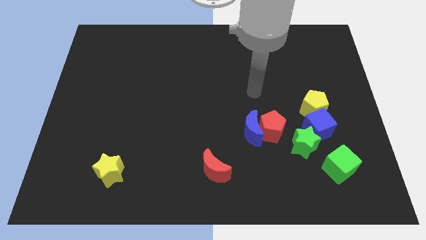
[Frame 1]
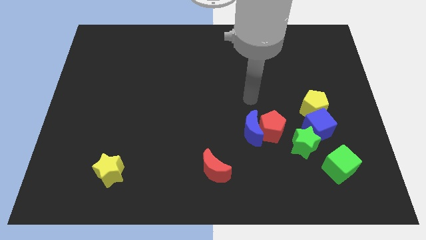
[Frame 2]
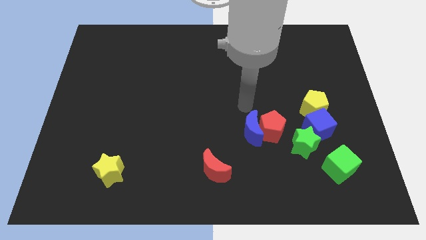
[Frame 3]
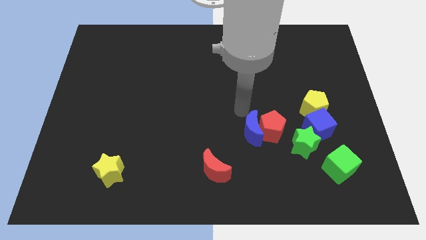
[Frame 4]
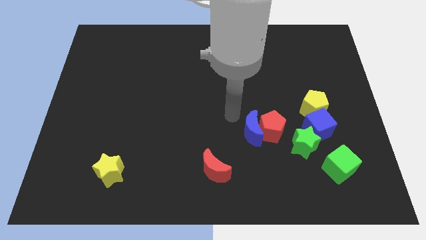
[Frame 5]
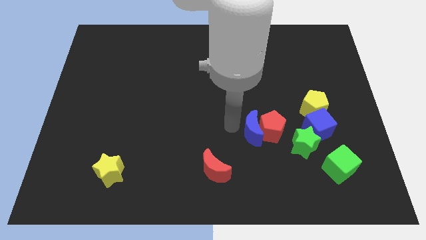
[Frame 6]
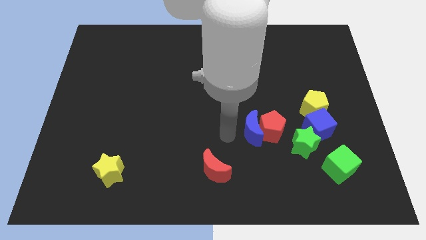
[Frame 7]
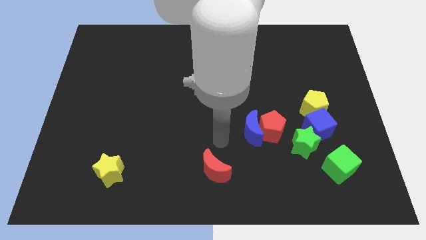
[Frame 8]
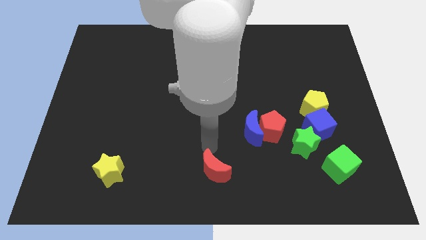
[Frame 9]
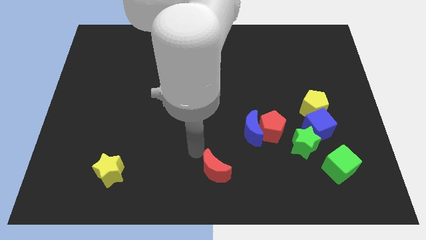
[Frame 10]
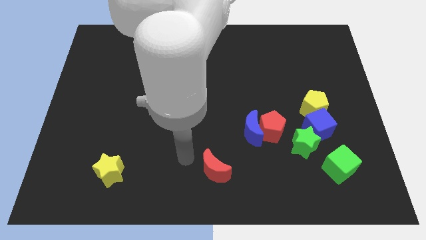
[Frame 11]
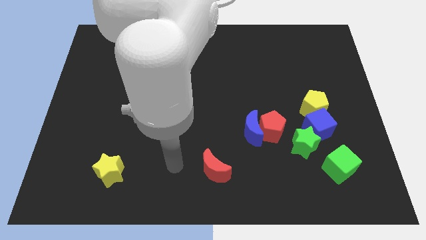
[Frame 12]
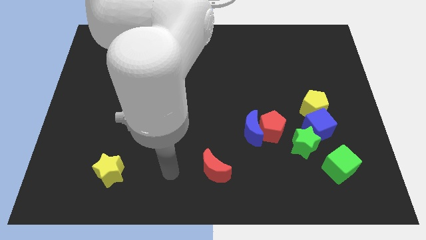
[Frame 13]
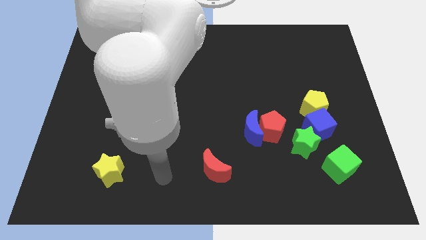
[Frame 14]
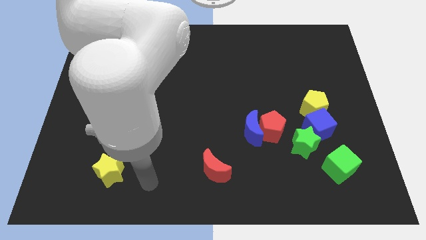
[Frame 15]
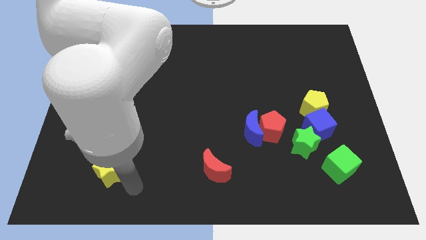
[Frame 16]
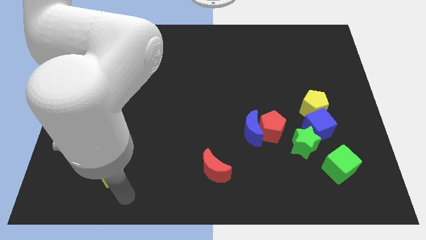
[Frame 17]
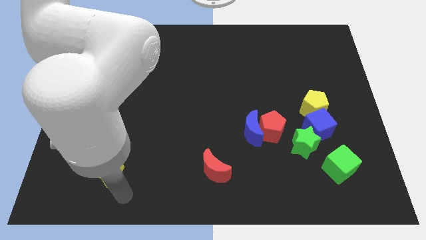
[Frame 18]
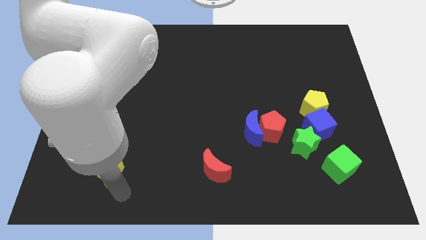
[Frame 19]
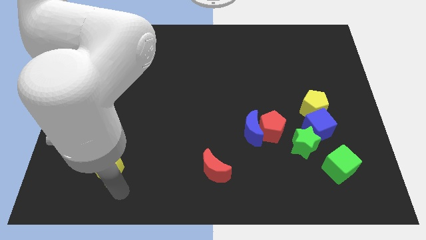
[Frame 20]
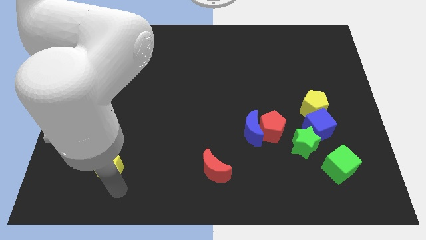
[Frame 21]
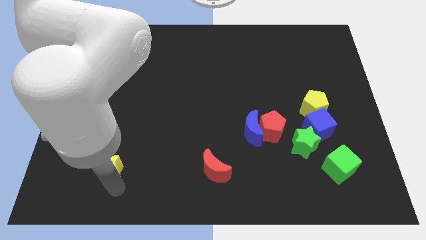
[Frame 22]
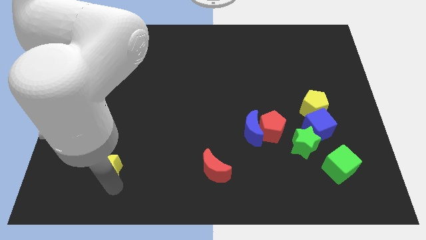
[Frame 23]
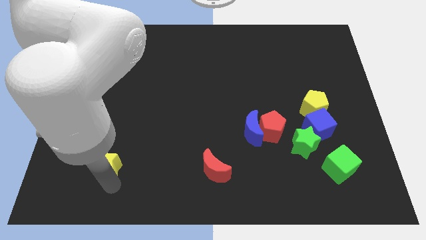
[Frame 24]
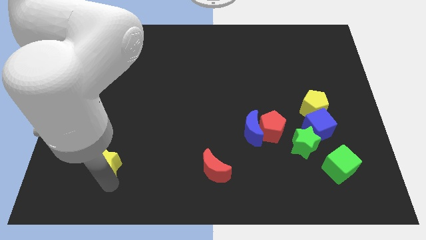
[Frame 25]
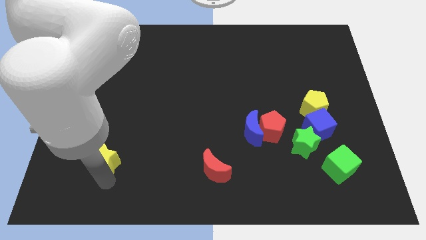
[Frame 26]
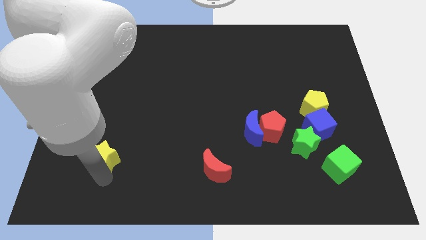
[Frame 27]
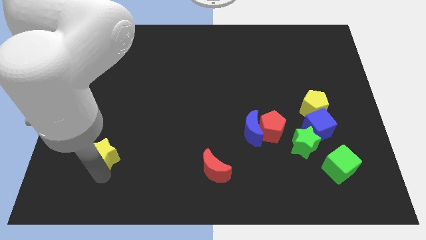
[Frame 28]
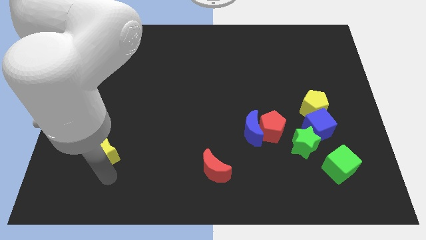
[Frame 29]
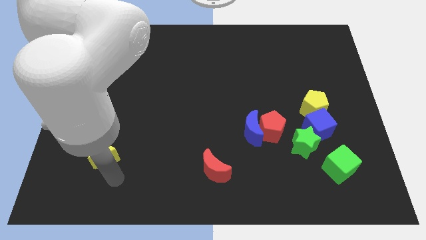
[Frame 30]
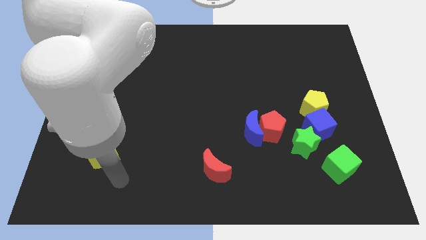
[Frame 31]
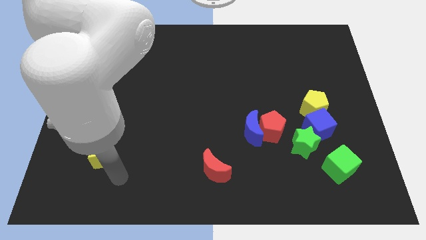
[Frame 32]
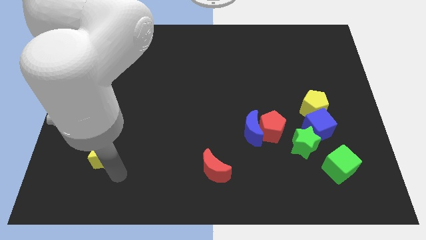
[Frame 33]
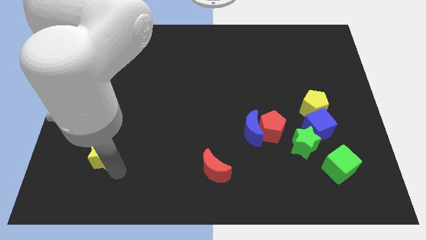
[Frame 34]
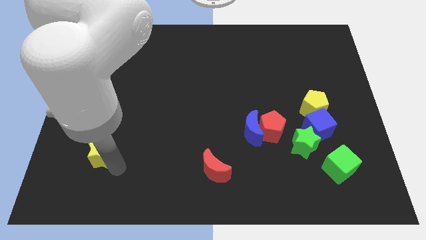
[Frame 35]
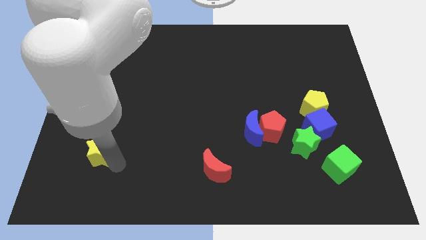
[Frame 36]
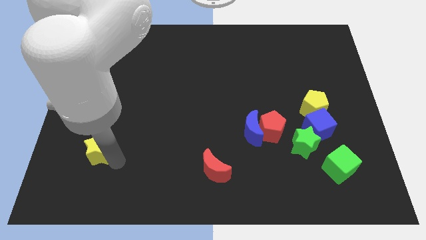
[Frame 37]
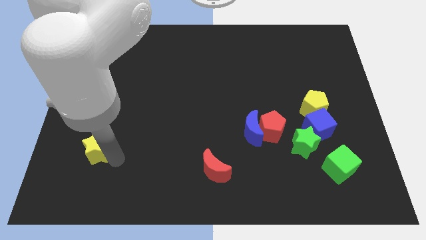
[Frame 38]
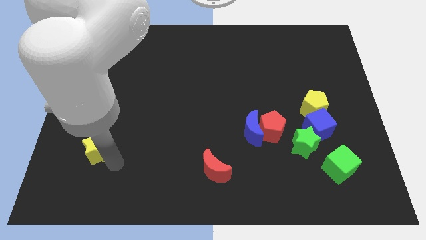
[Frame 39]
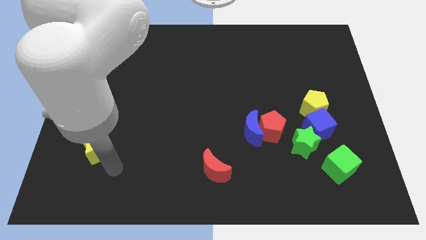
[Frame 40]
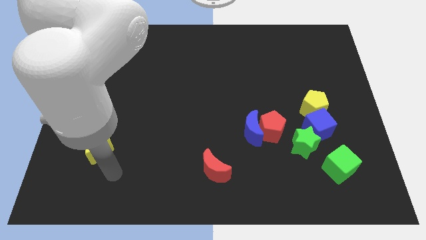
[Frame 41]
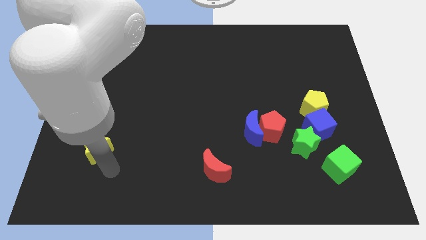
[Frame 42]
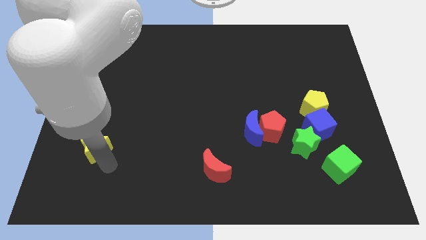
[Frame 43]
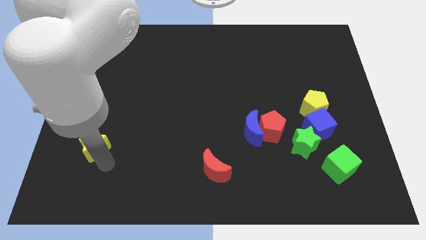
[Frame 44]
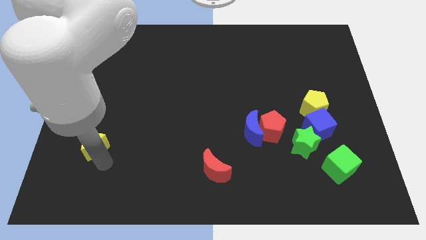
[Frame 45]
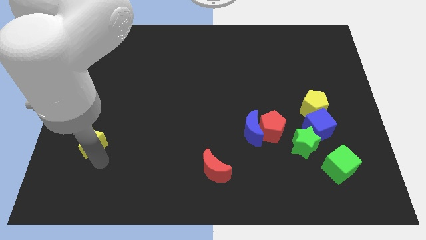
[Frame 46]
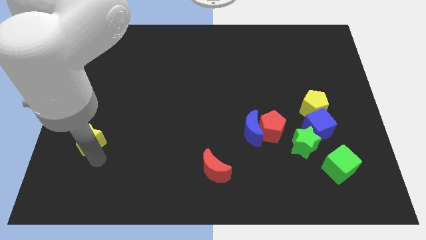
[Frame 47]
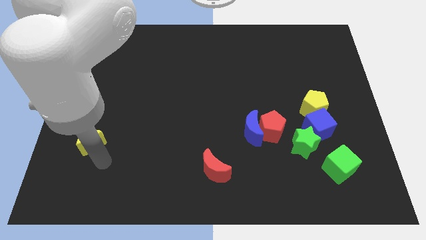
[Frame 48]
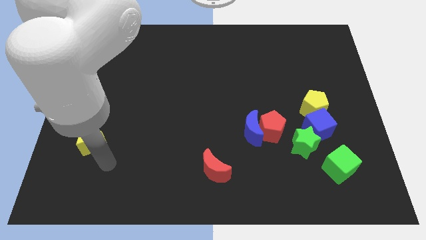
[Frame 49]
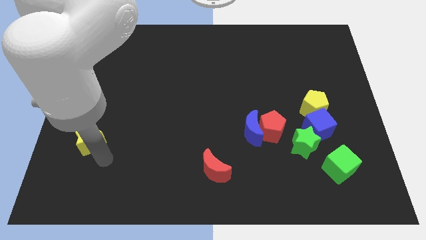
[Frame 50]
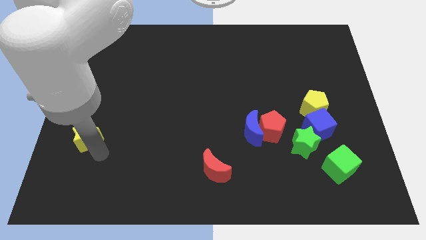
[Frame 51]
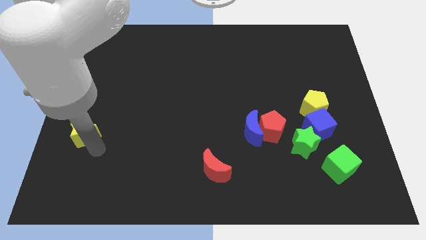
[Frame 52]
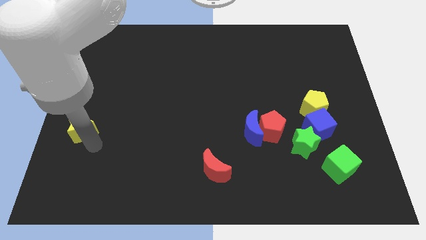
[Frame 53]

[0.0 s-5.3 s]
slide the yellow star to the center left
